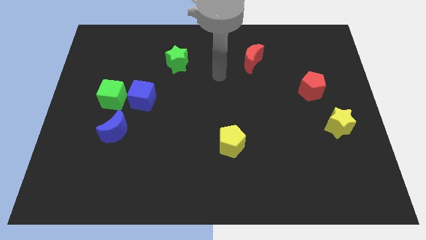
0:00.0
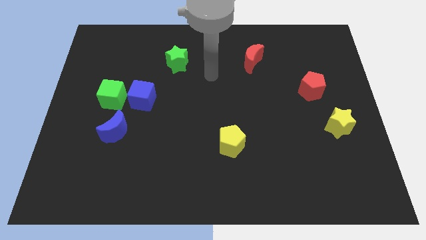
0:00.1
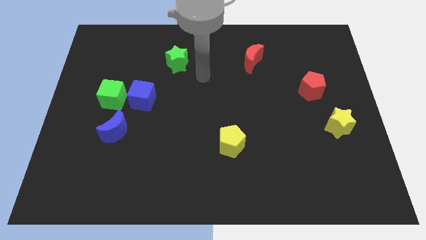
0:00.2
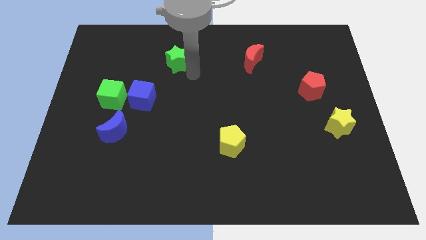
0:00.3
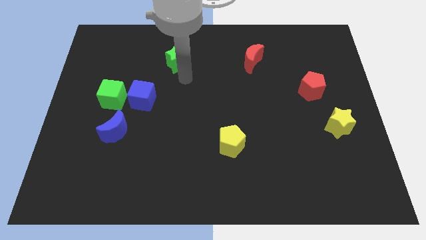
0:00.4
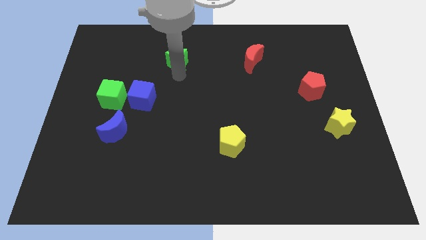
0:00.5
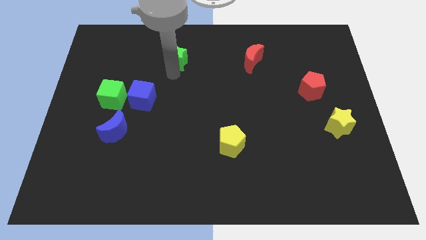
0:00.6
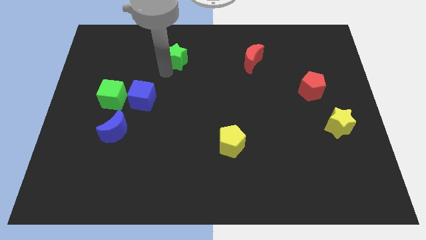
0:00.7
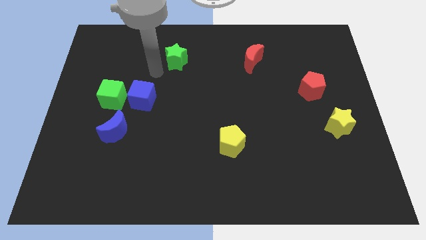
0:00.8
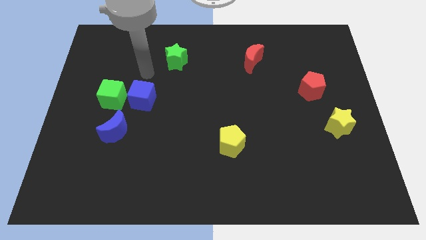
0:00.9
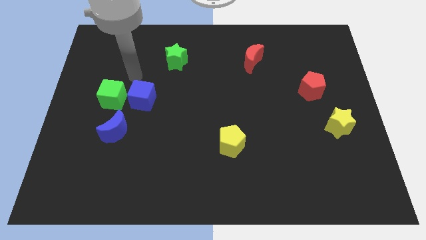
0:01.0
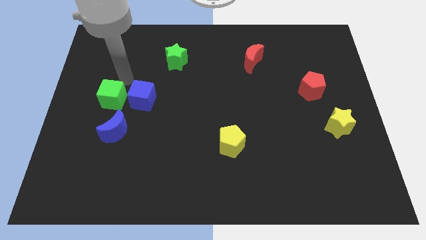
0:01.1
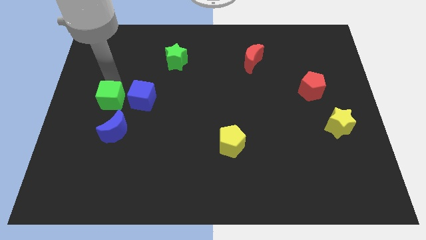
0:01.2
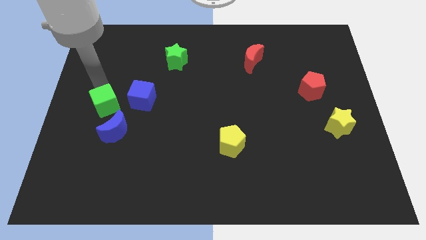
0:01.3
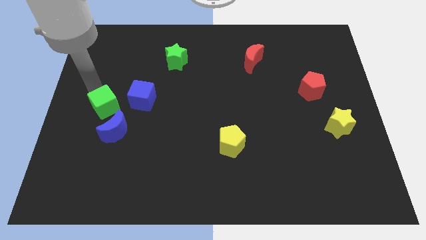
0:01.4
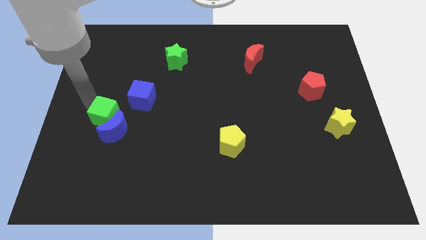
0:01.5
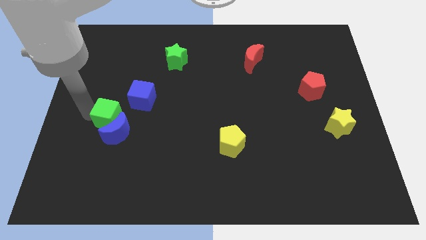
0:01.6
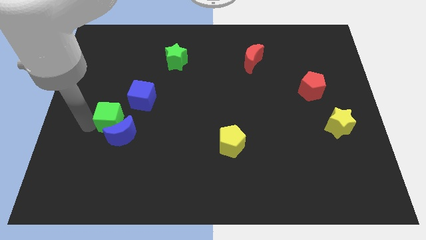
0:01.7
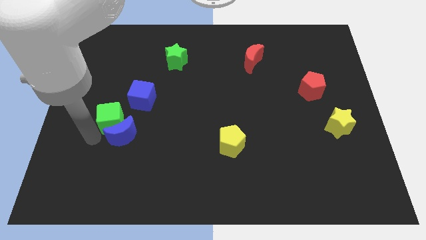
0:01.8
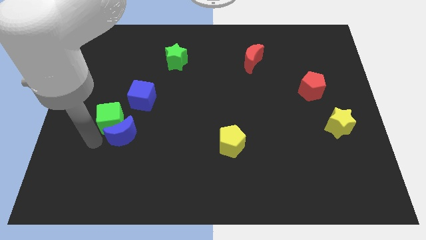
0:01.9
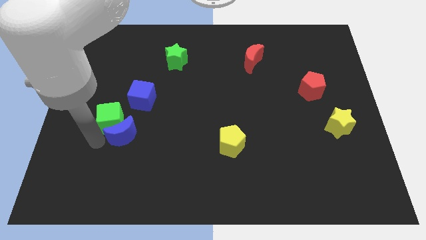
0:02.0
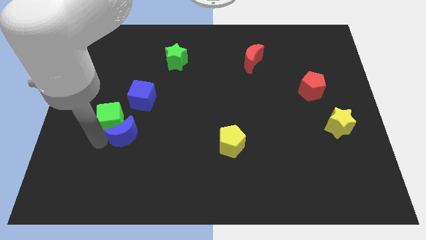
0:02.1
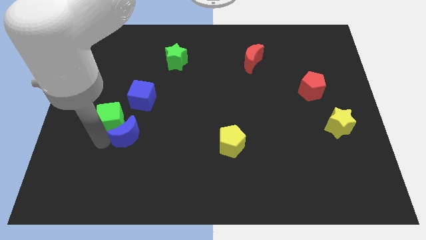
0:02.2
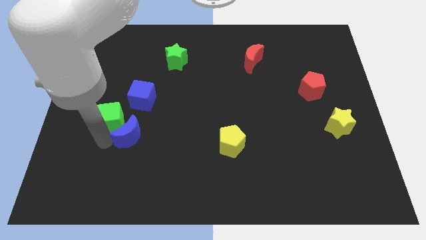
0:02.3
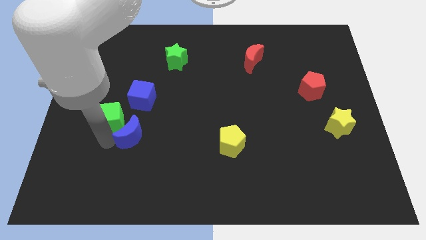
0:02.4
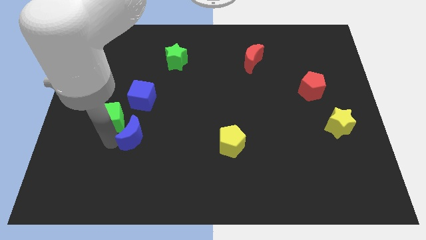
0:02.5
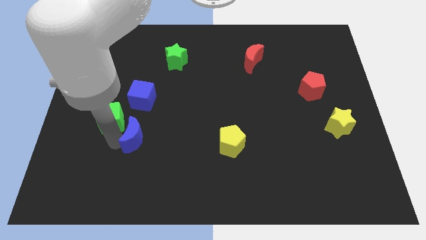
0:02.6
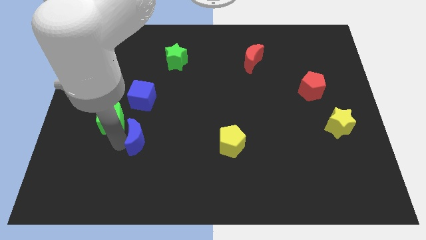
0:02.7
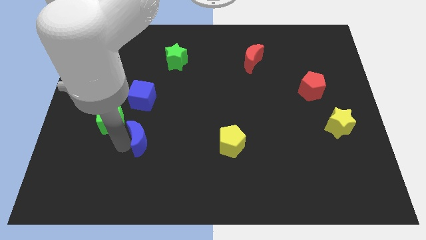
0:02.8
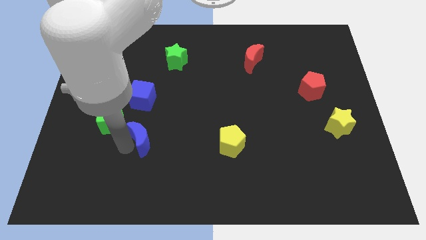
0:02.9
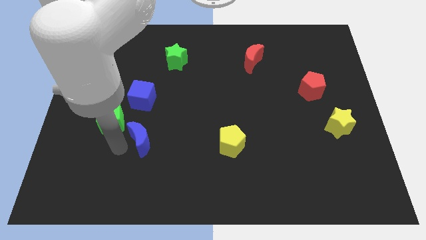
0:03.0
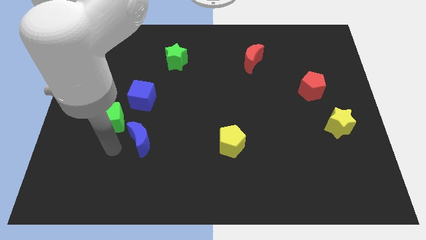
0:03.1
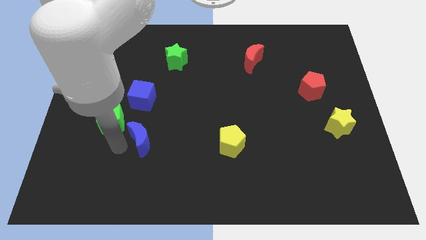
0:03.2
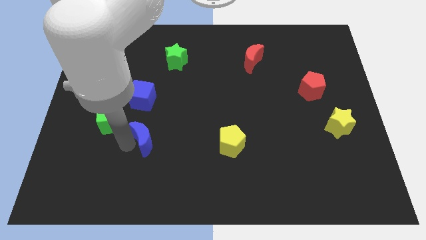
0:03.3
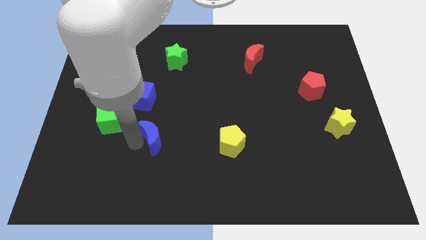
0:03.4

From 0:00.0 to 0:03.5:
slightly push the blue moon to the right

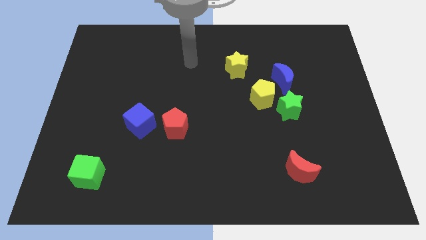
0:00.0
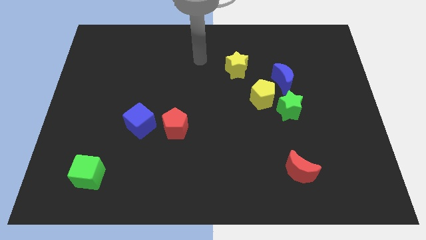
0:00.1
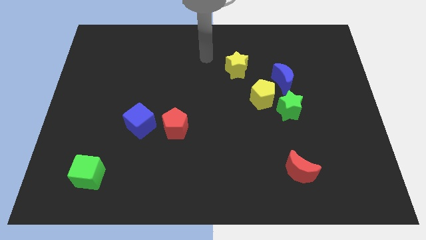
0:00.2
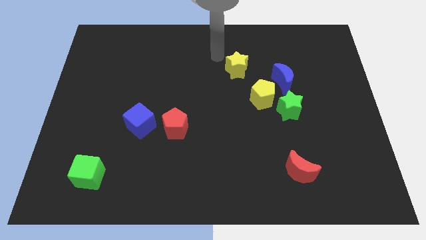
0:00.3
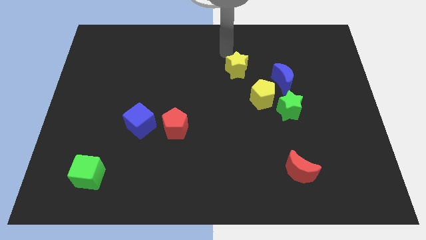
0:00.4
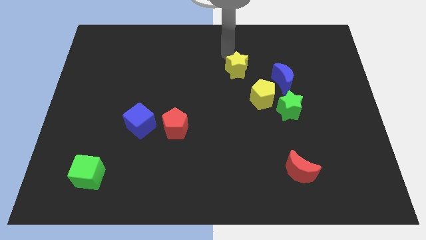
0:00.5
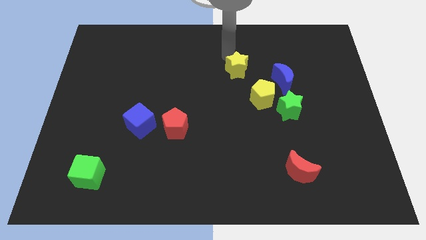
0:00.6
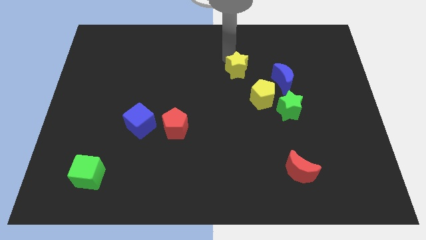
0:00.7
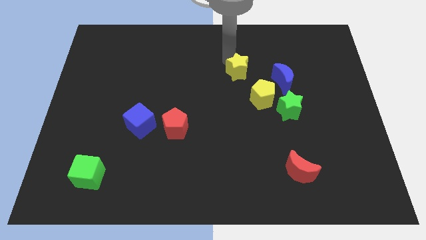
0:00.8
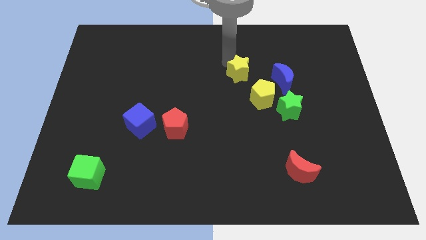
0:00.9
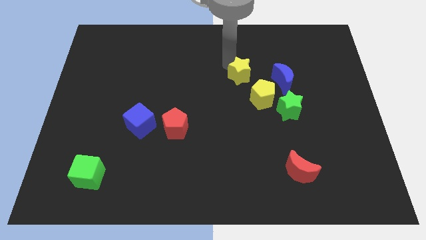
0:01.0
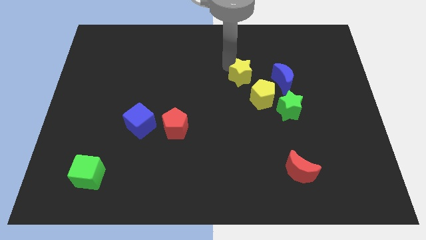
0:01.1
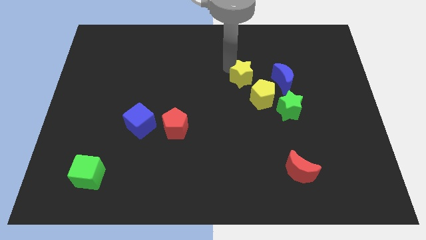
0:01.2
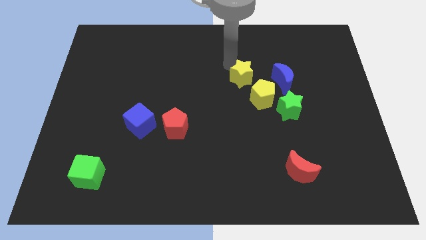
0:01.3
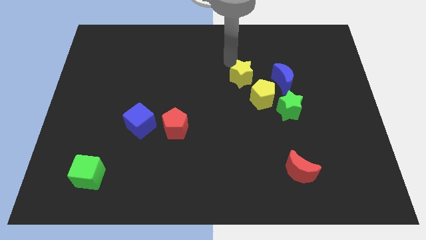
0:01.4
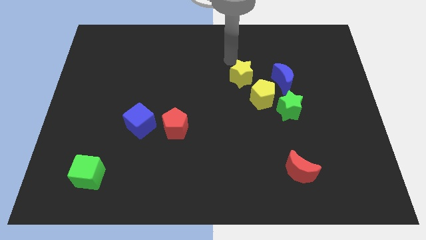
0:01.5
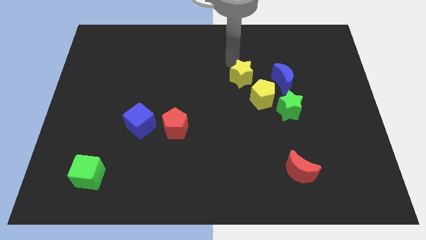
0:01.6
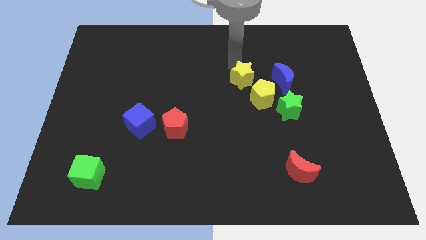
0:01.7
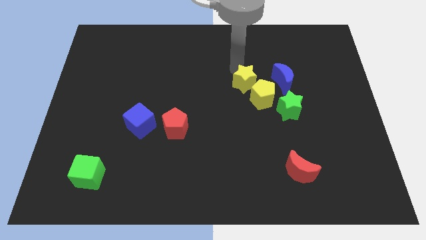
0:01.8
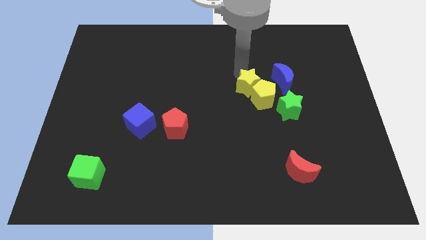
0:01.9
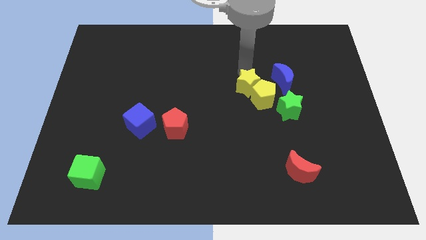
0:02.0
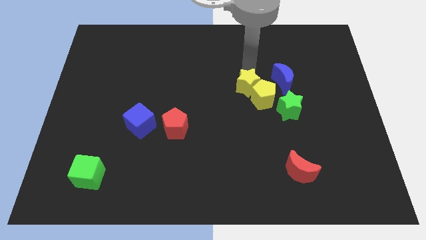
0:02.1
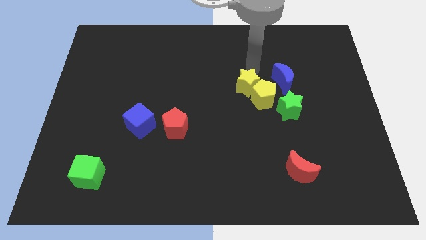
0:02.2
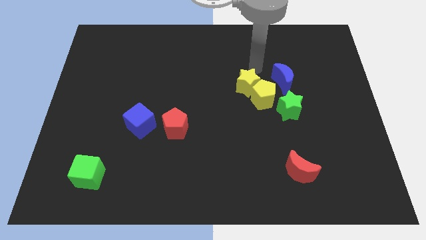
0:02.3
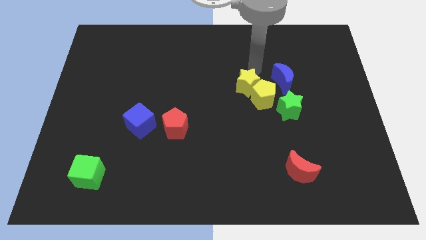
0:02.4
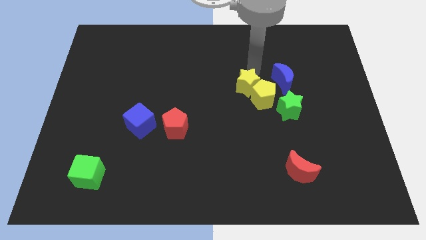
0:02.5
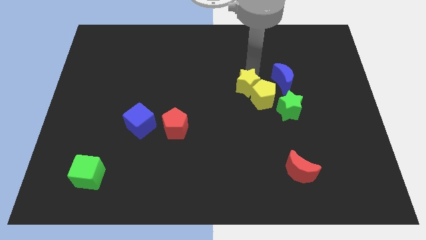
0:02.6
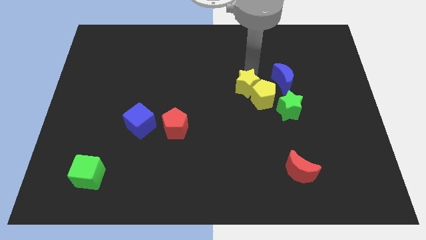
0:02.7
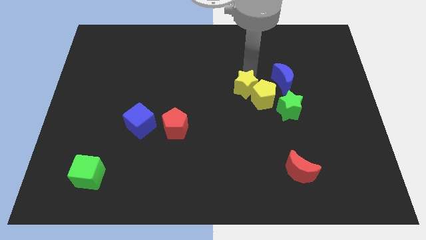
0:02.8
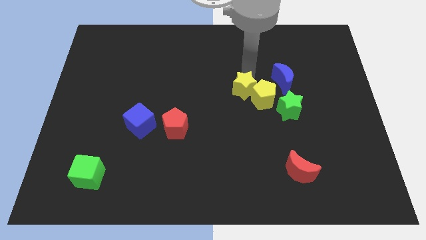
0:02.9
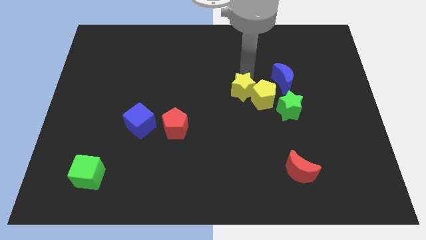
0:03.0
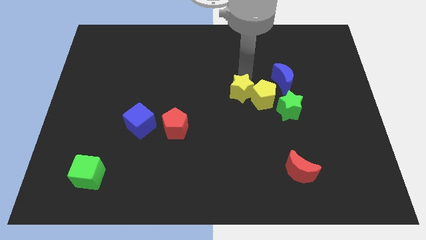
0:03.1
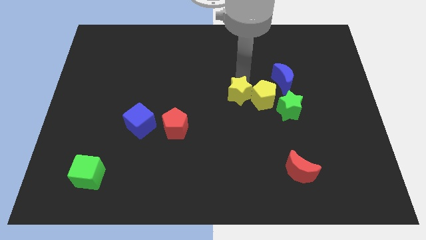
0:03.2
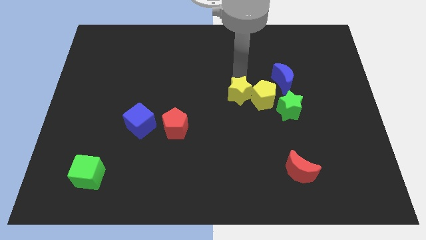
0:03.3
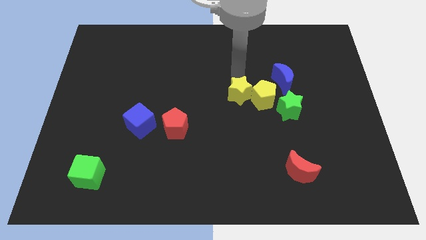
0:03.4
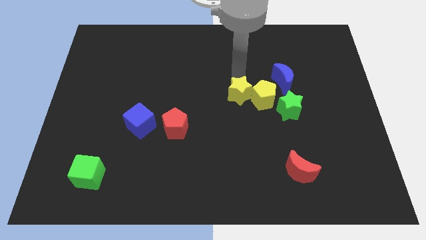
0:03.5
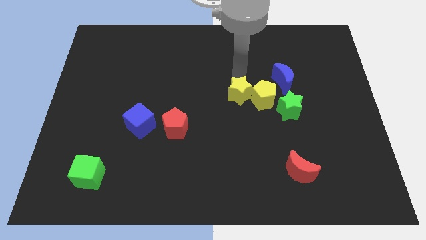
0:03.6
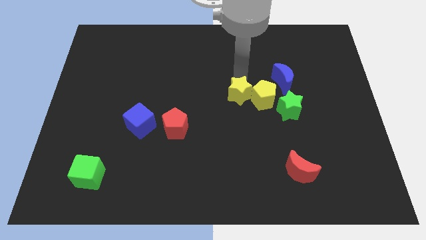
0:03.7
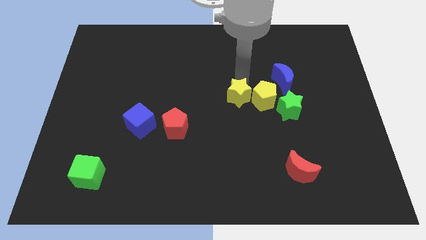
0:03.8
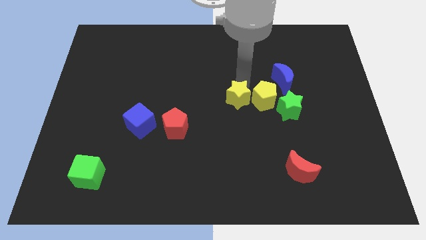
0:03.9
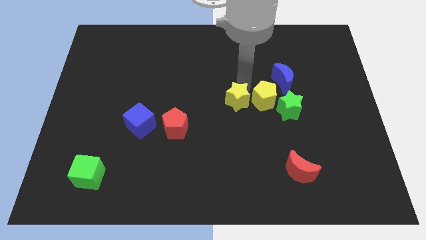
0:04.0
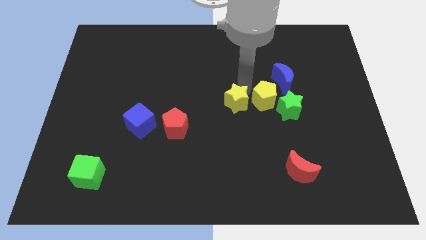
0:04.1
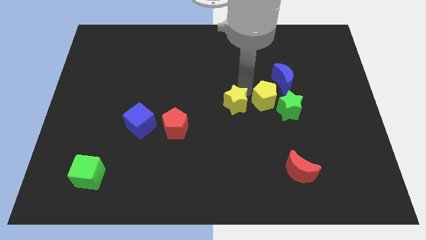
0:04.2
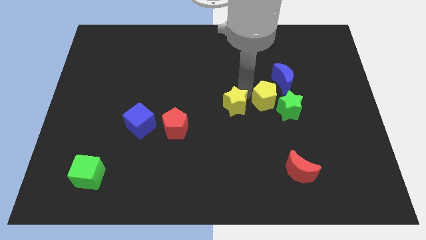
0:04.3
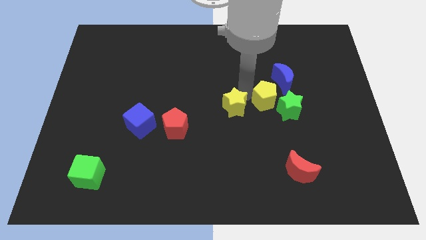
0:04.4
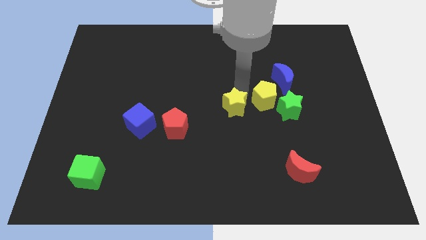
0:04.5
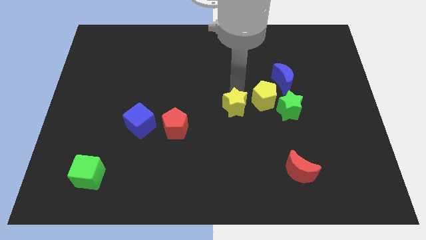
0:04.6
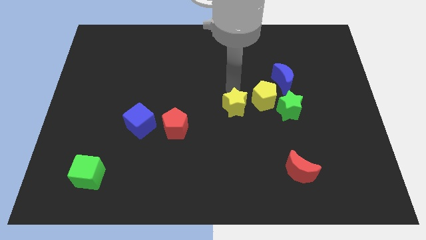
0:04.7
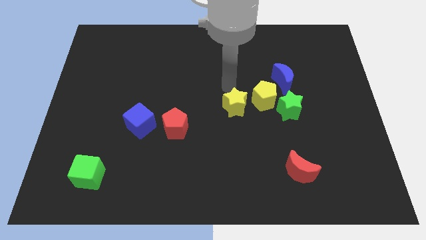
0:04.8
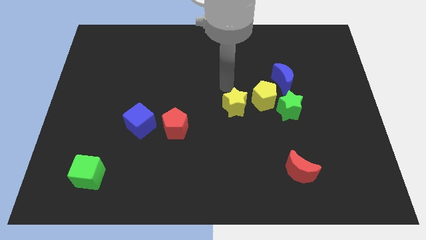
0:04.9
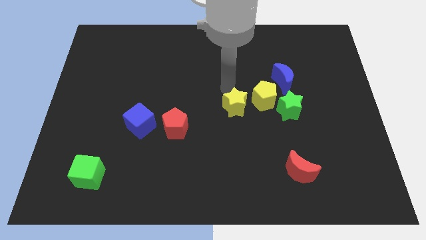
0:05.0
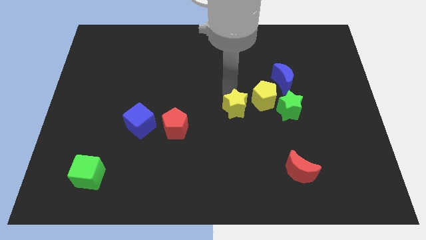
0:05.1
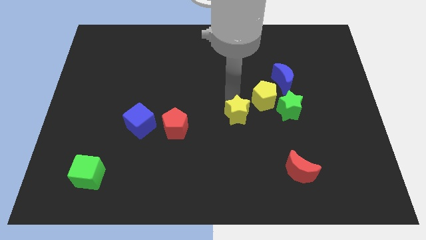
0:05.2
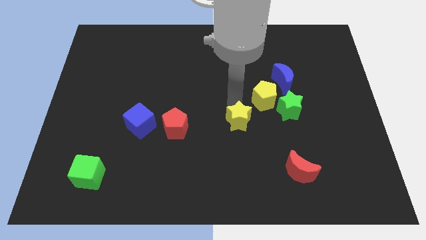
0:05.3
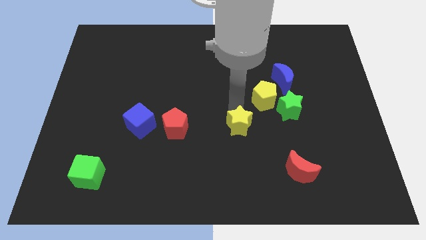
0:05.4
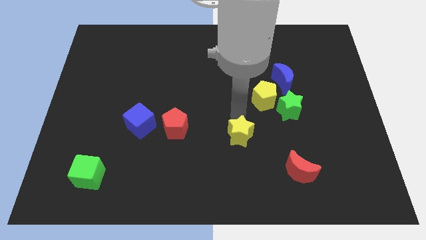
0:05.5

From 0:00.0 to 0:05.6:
push the yellow star downwards
